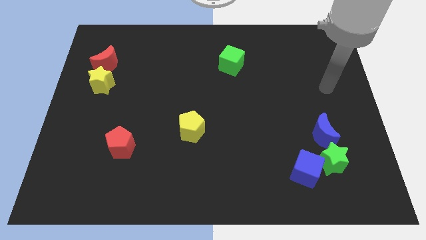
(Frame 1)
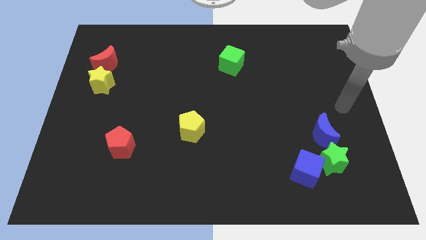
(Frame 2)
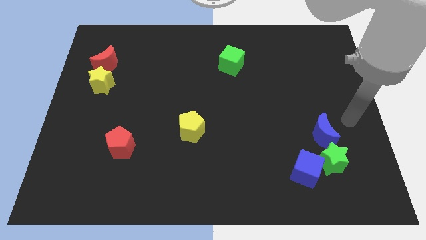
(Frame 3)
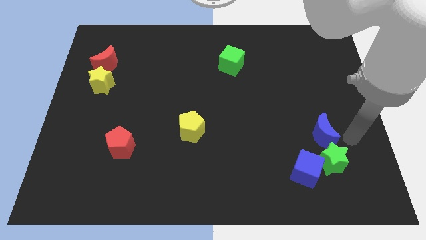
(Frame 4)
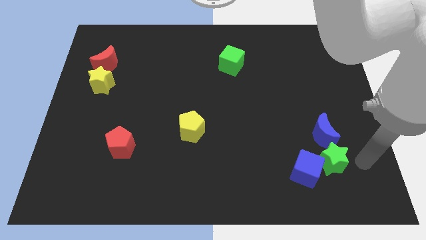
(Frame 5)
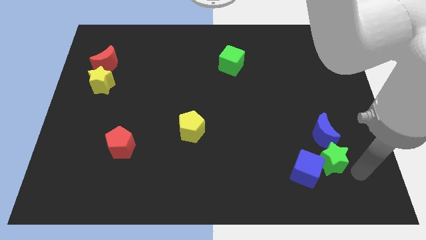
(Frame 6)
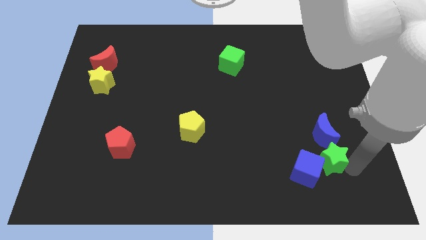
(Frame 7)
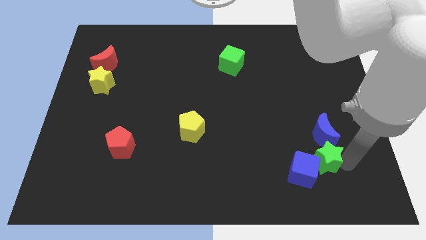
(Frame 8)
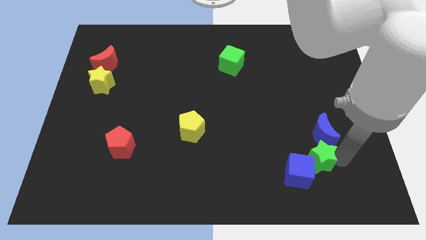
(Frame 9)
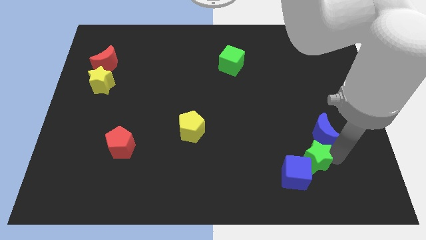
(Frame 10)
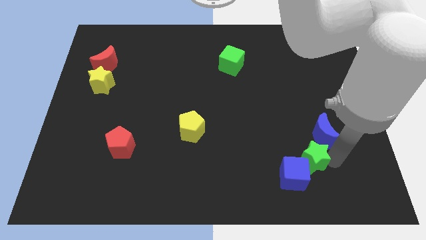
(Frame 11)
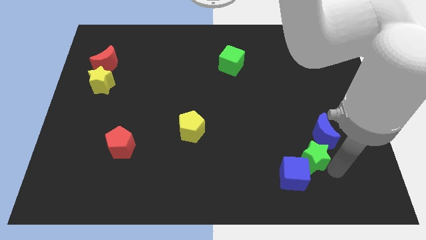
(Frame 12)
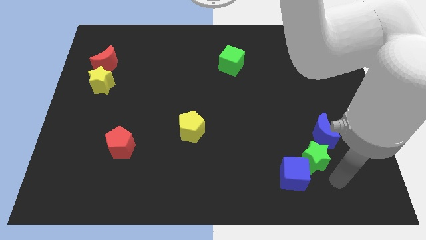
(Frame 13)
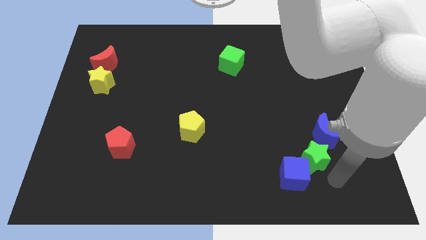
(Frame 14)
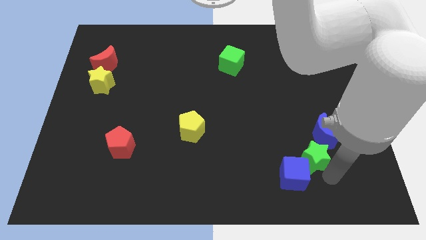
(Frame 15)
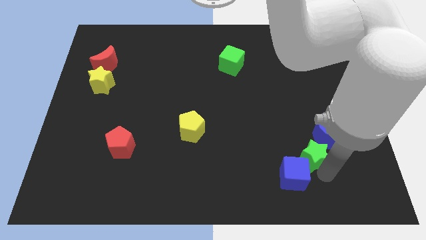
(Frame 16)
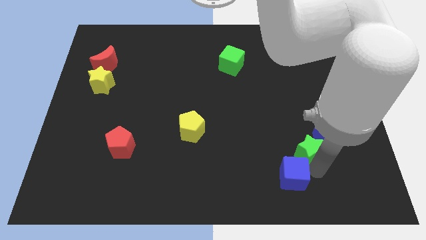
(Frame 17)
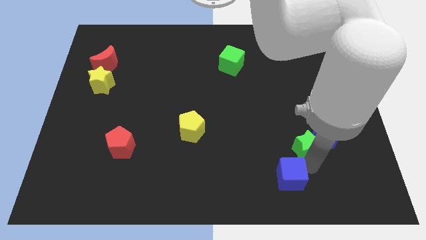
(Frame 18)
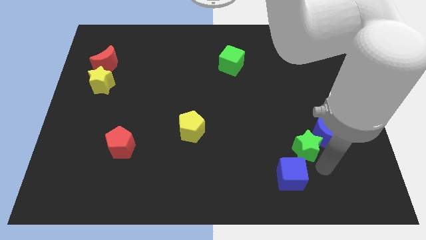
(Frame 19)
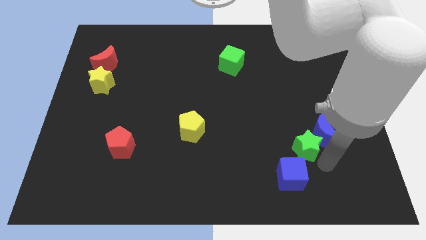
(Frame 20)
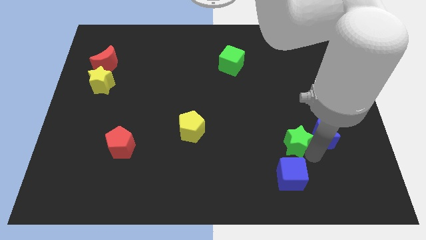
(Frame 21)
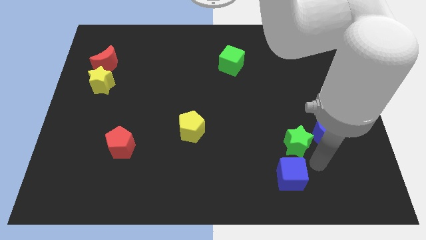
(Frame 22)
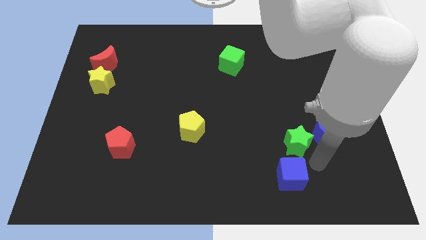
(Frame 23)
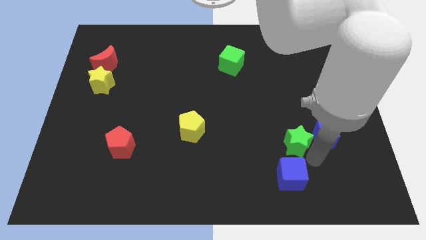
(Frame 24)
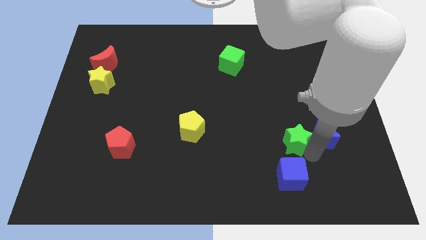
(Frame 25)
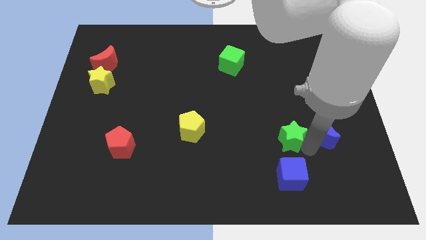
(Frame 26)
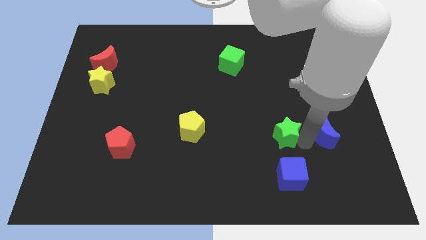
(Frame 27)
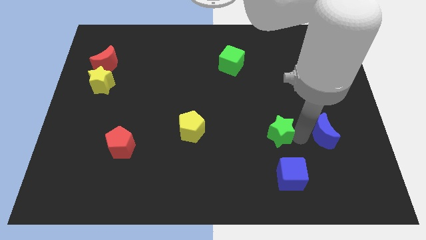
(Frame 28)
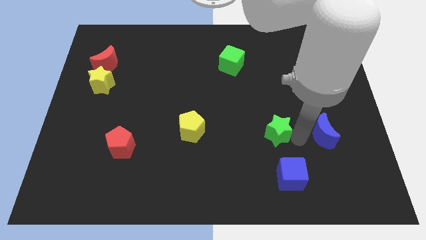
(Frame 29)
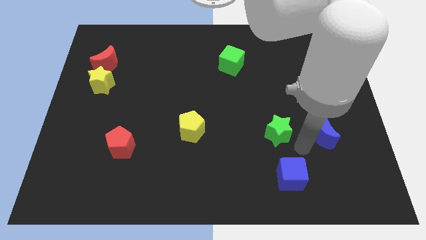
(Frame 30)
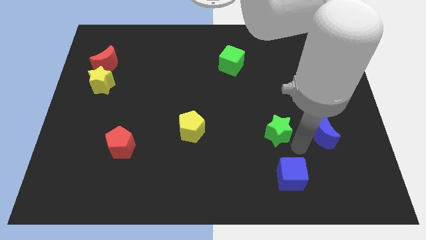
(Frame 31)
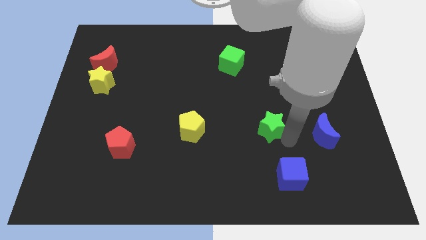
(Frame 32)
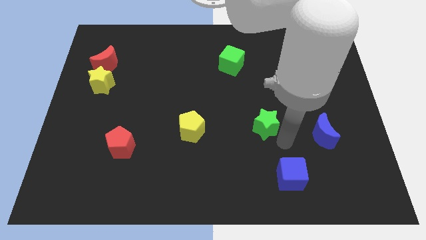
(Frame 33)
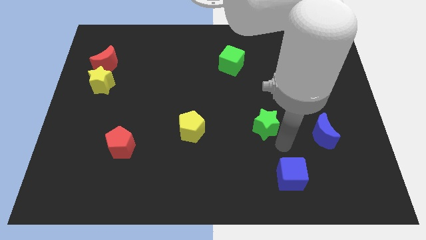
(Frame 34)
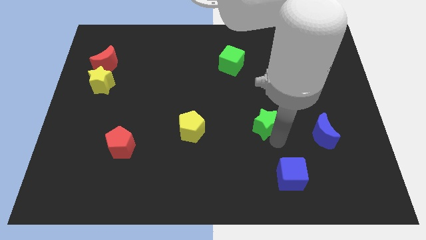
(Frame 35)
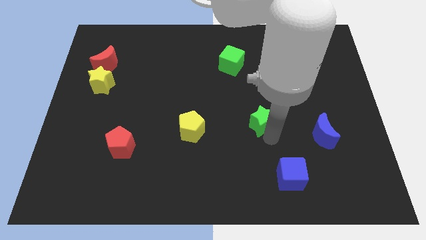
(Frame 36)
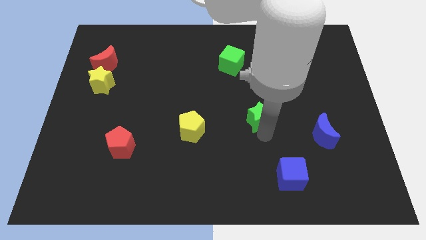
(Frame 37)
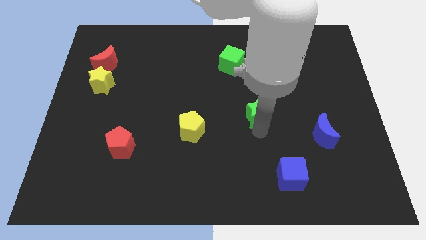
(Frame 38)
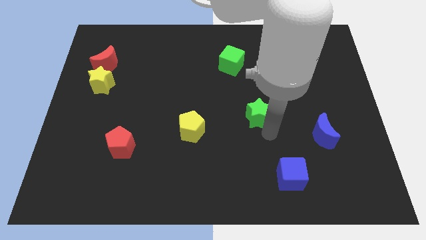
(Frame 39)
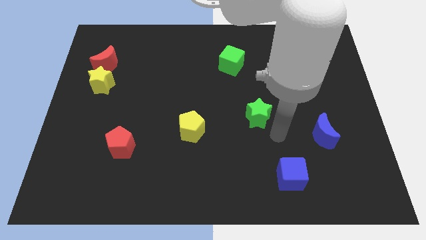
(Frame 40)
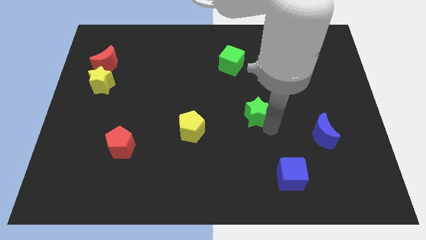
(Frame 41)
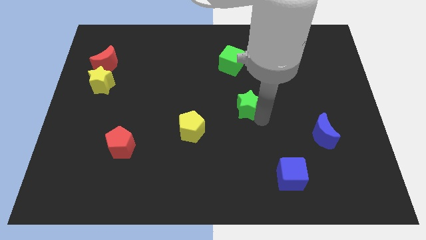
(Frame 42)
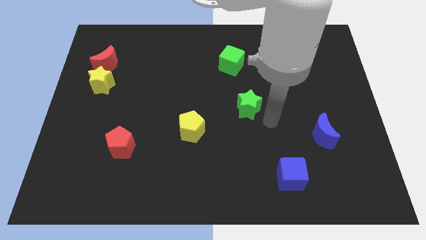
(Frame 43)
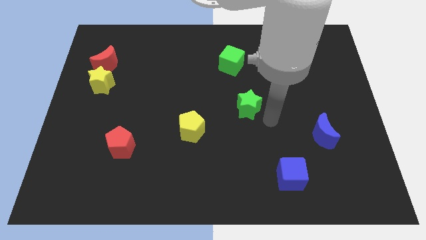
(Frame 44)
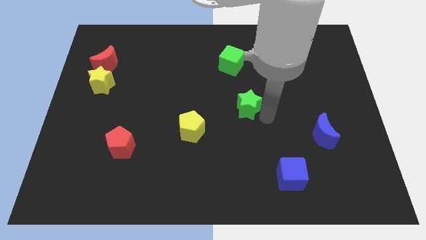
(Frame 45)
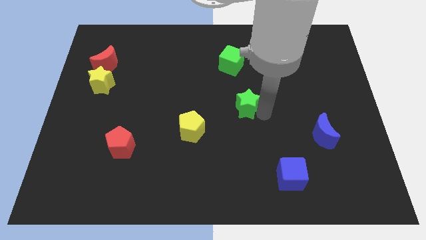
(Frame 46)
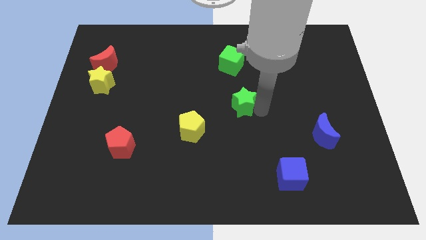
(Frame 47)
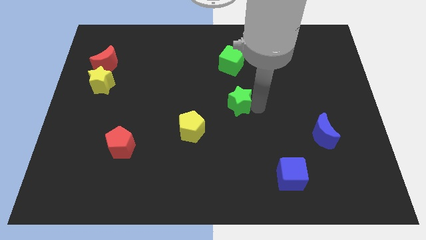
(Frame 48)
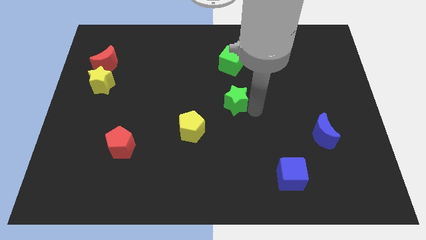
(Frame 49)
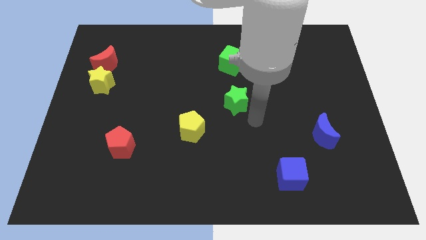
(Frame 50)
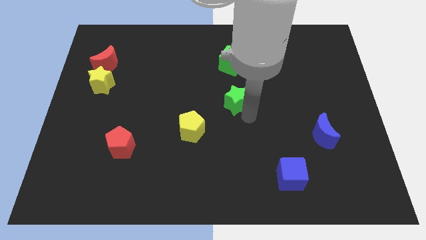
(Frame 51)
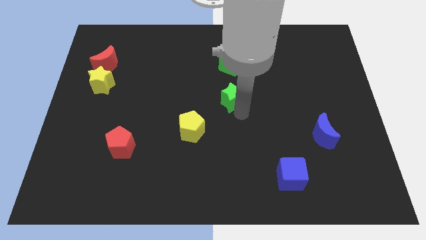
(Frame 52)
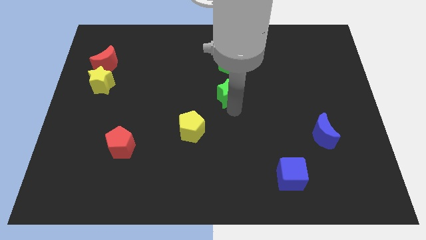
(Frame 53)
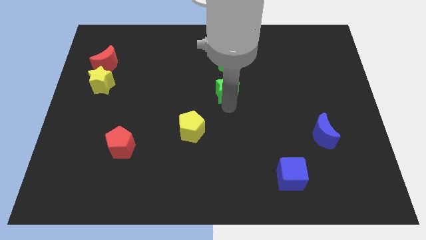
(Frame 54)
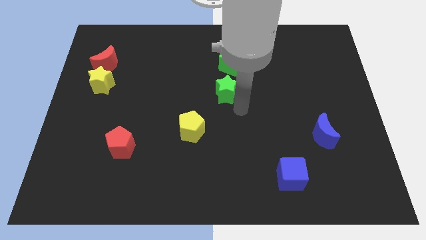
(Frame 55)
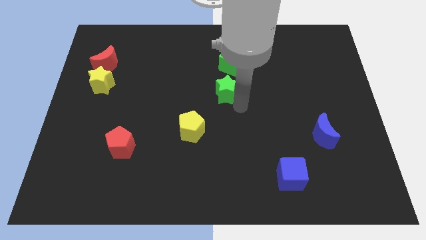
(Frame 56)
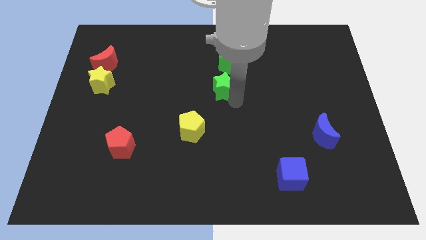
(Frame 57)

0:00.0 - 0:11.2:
push the green star to the bottom left of the green cube

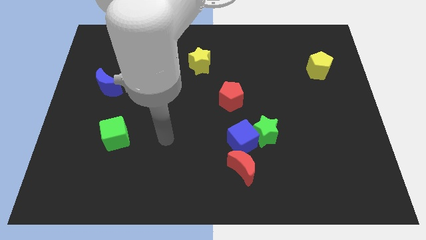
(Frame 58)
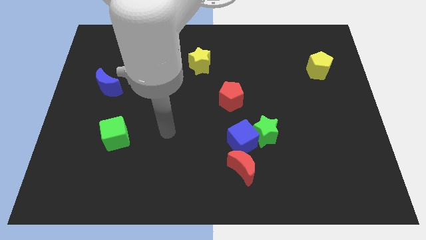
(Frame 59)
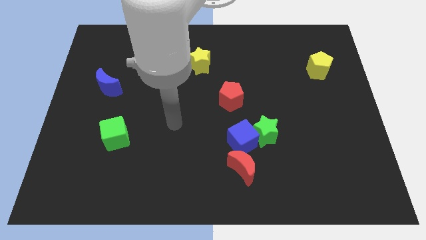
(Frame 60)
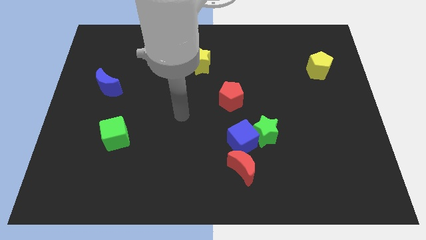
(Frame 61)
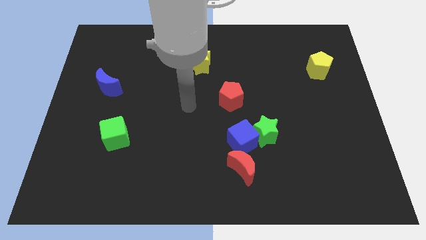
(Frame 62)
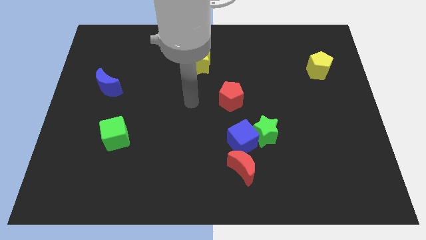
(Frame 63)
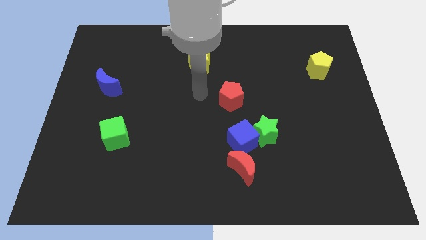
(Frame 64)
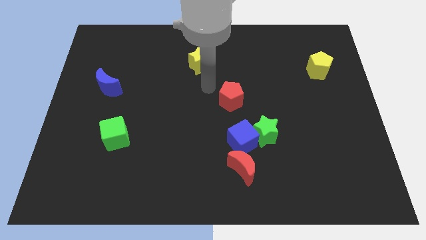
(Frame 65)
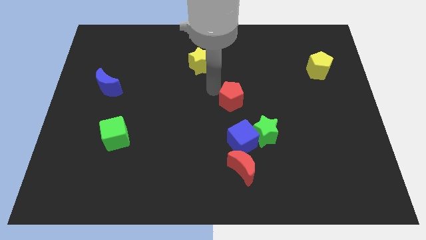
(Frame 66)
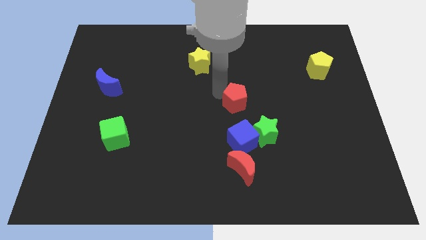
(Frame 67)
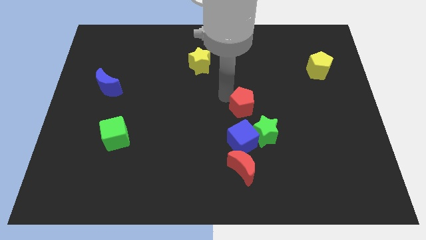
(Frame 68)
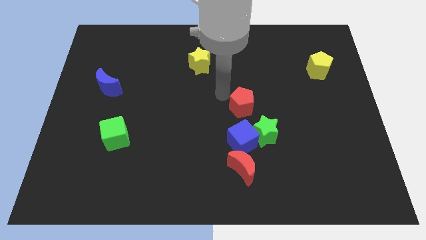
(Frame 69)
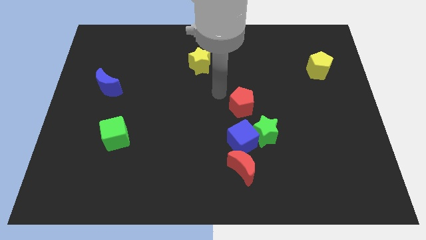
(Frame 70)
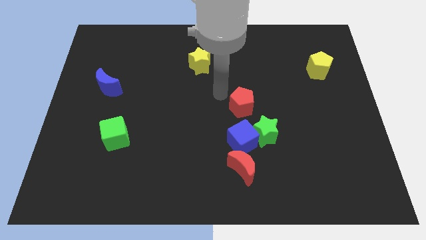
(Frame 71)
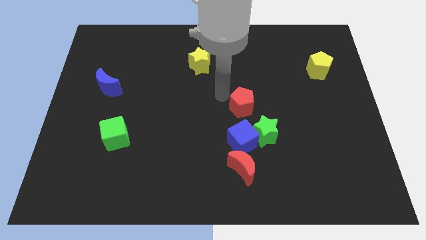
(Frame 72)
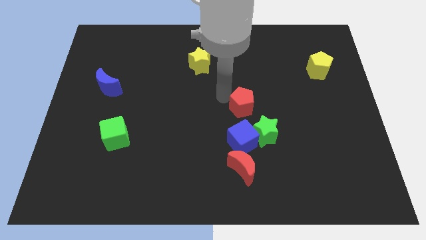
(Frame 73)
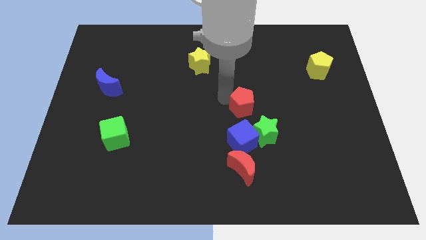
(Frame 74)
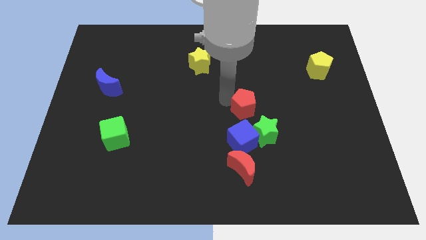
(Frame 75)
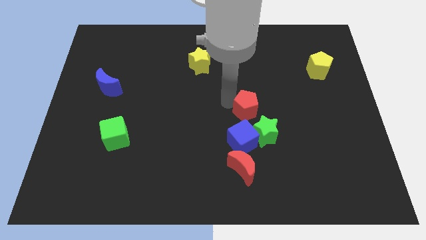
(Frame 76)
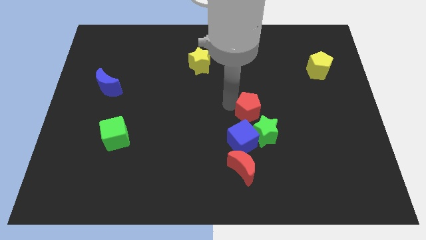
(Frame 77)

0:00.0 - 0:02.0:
move the red pentagon diagonally up and to the right of the blue cube
